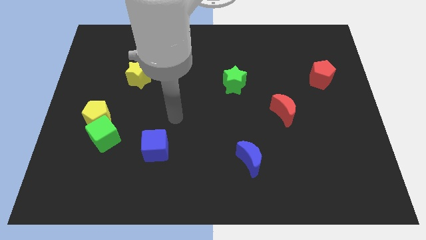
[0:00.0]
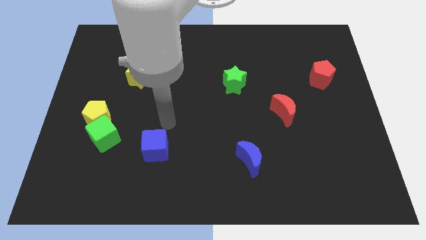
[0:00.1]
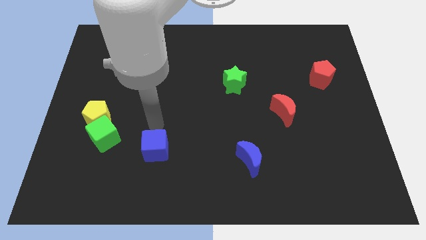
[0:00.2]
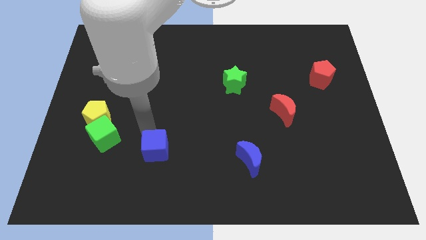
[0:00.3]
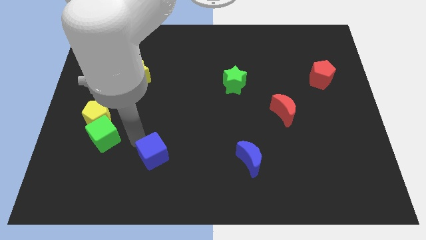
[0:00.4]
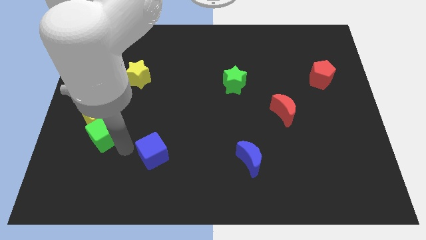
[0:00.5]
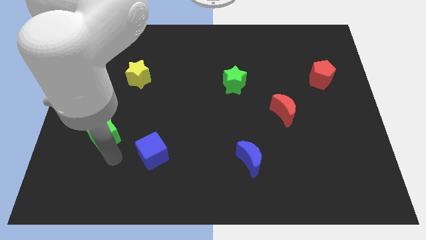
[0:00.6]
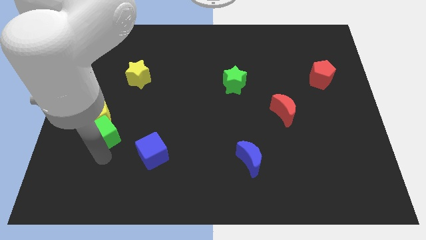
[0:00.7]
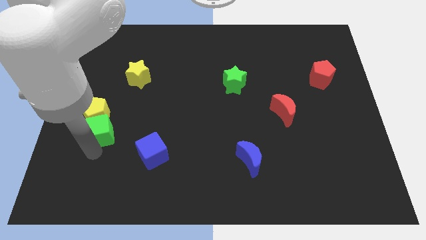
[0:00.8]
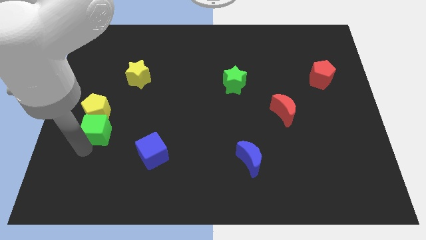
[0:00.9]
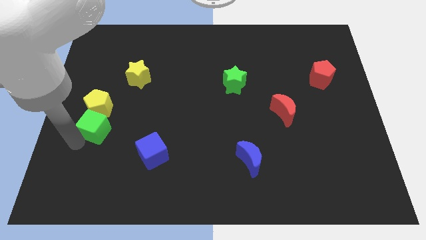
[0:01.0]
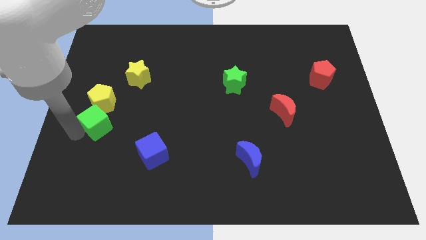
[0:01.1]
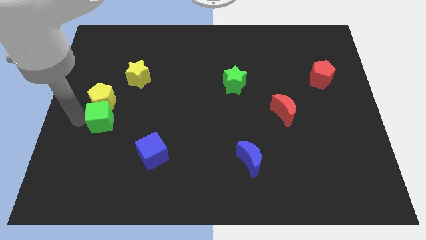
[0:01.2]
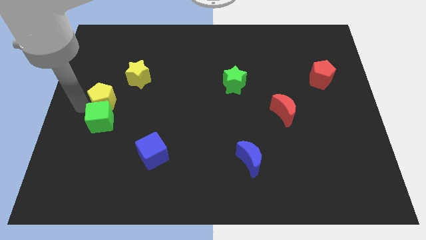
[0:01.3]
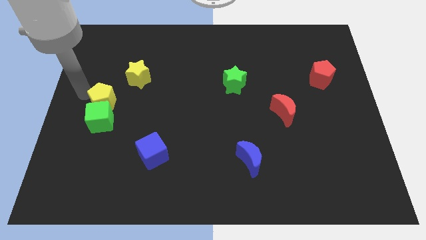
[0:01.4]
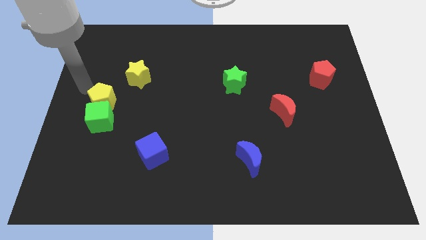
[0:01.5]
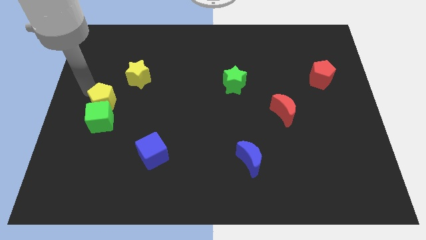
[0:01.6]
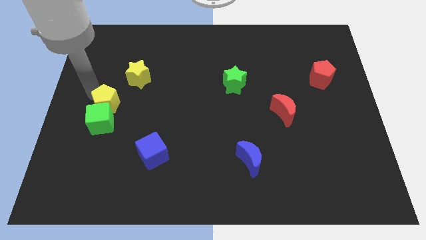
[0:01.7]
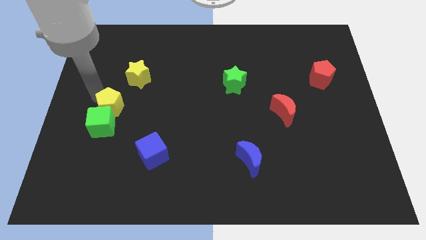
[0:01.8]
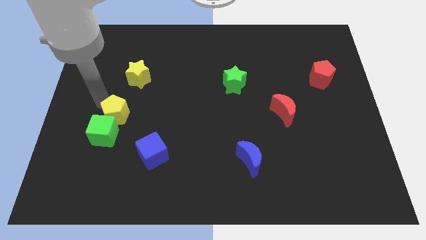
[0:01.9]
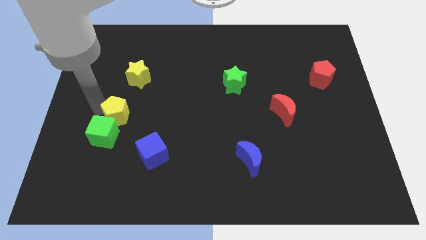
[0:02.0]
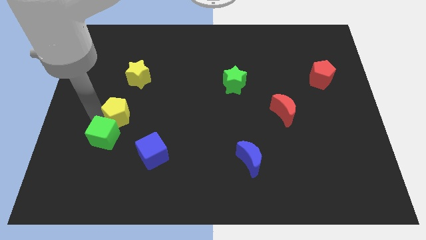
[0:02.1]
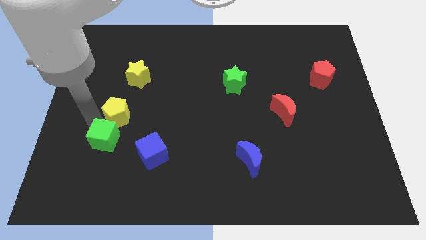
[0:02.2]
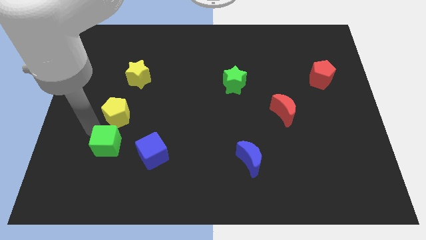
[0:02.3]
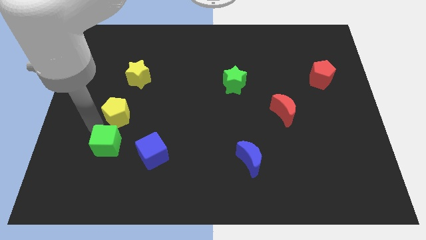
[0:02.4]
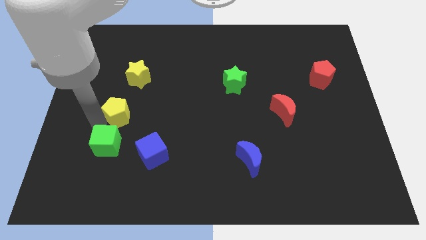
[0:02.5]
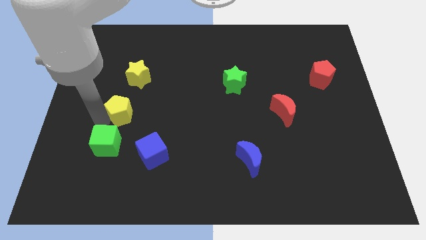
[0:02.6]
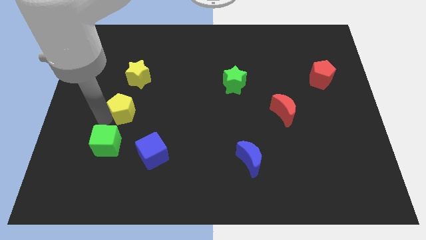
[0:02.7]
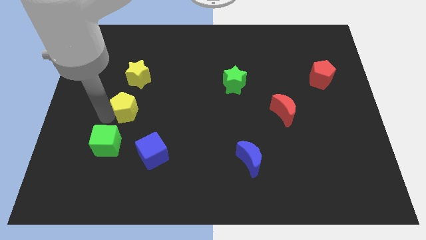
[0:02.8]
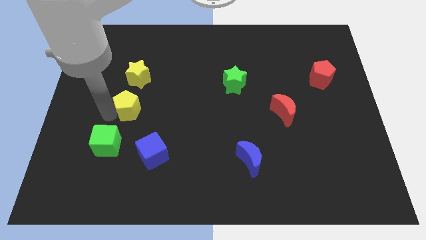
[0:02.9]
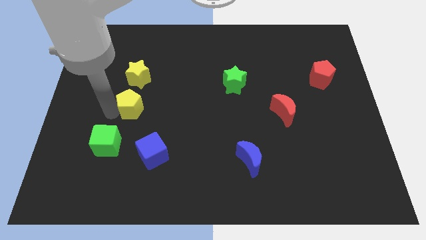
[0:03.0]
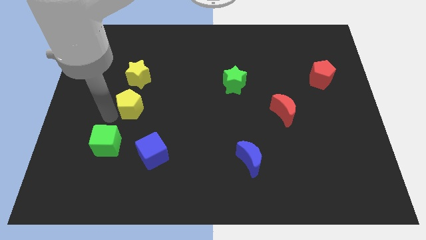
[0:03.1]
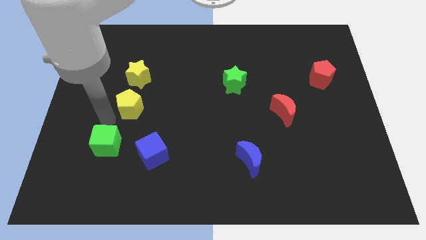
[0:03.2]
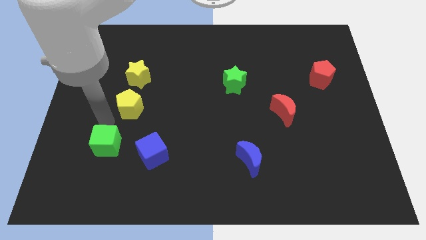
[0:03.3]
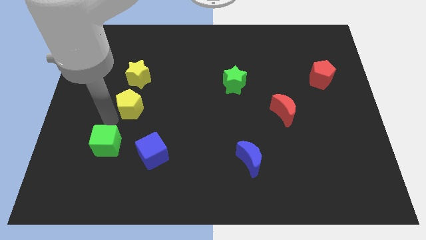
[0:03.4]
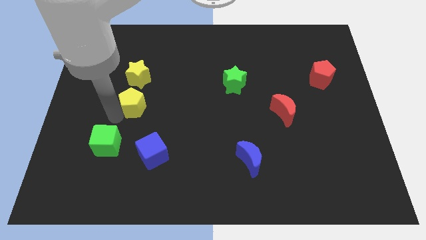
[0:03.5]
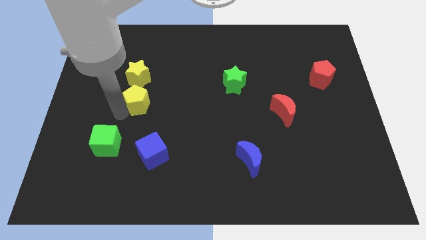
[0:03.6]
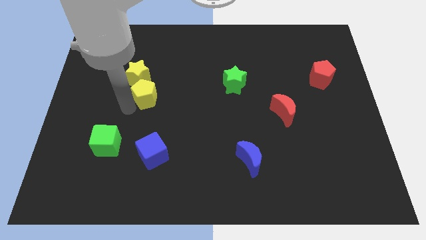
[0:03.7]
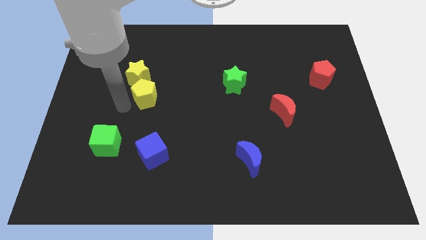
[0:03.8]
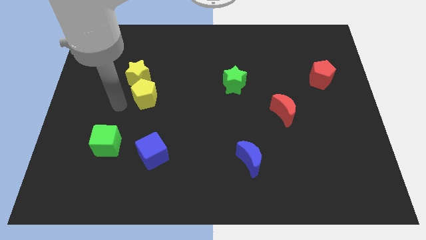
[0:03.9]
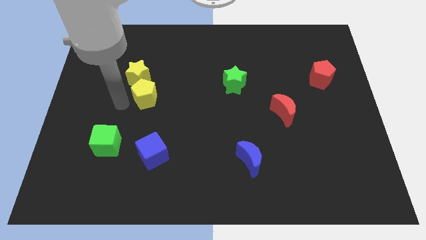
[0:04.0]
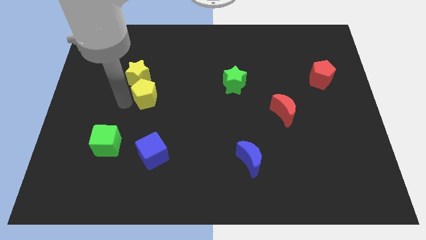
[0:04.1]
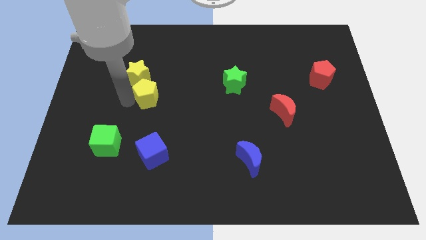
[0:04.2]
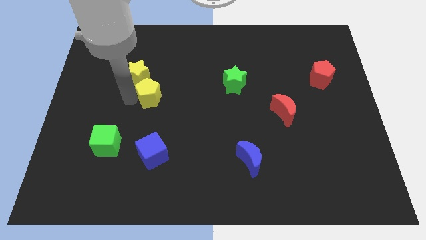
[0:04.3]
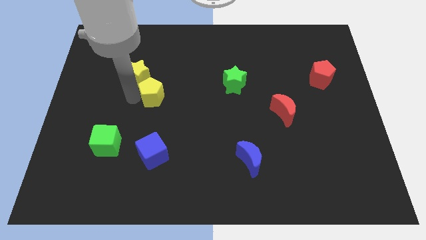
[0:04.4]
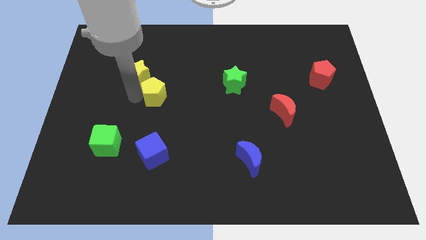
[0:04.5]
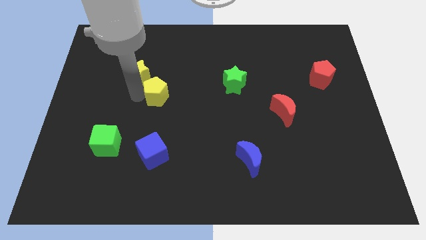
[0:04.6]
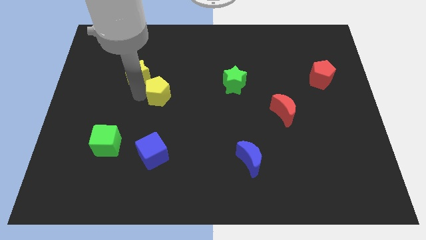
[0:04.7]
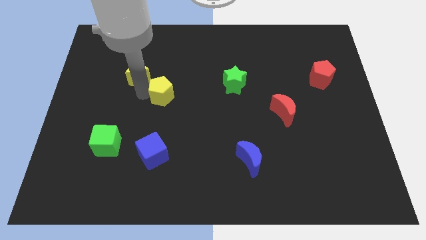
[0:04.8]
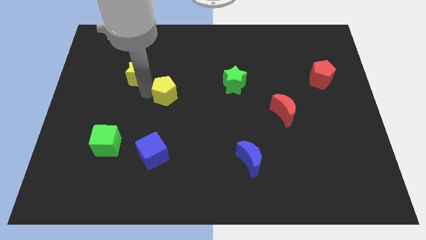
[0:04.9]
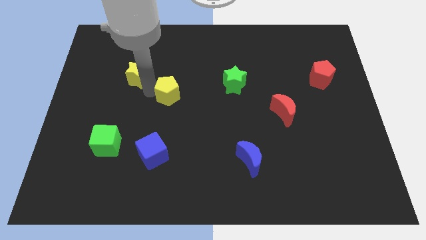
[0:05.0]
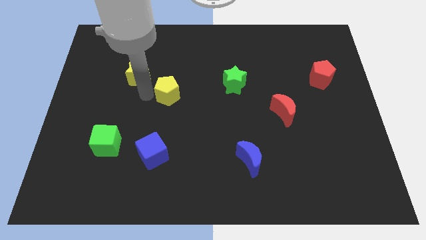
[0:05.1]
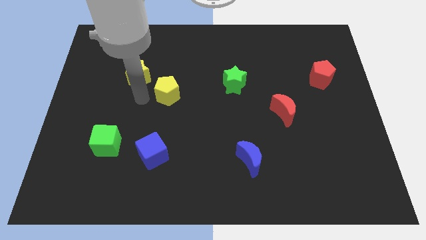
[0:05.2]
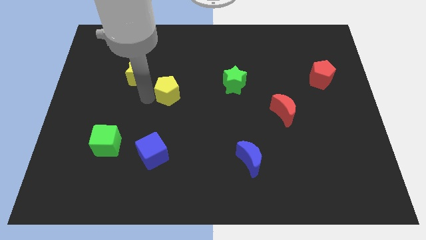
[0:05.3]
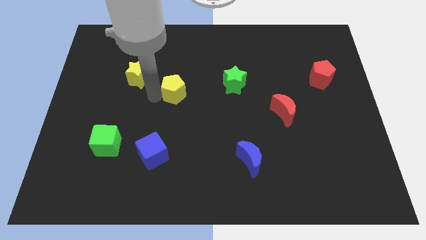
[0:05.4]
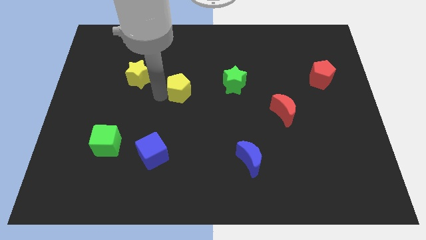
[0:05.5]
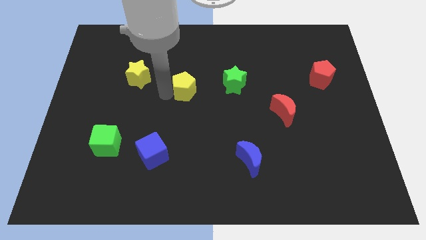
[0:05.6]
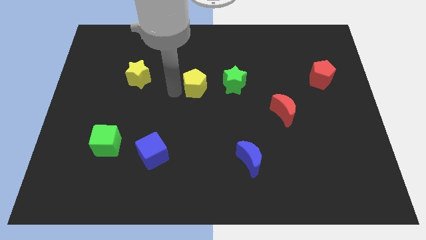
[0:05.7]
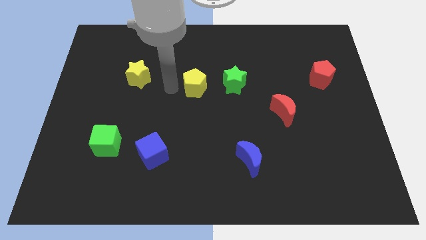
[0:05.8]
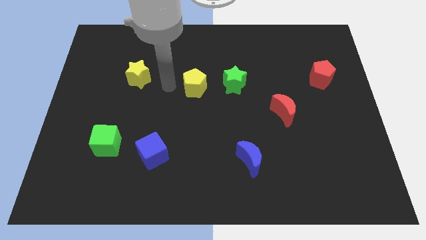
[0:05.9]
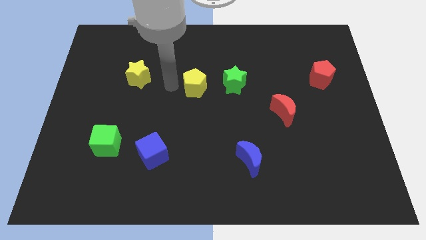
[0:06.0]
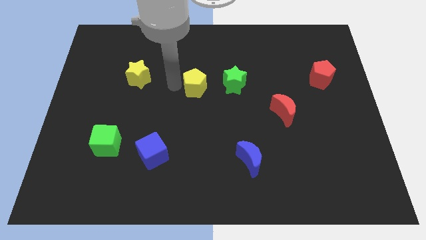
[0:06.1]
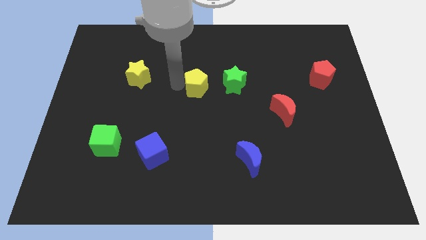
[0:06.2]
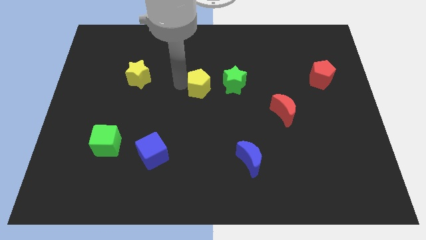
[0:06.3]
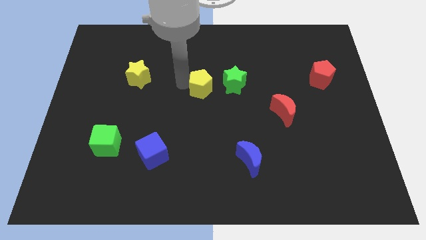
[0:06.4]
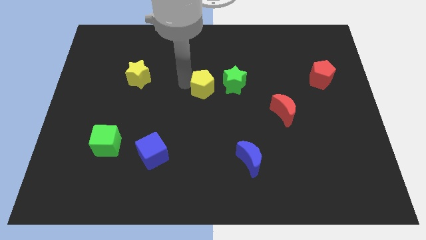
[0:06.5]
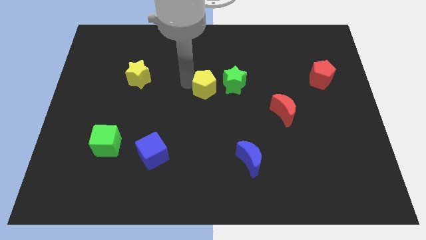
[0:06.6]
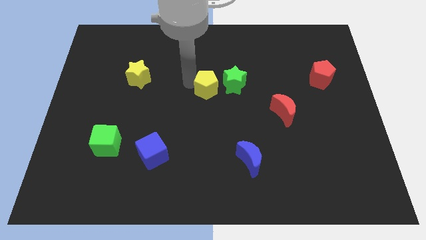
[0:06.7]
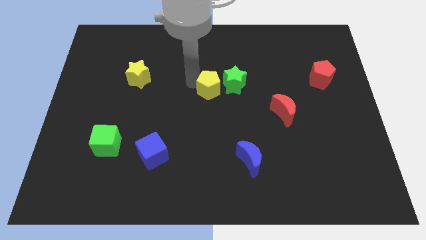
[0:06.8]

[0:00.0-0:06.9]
put the yellow pentagon close to the green star

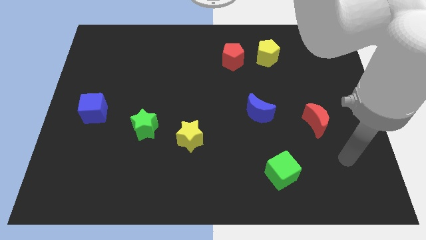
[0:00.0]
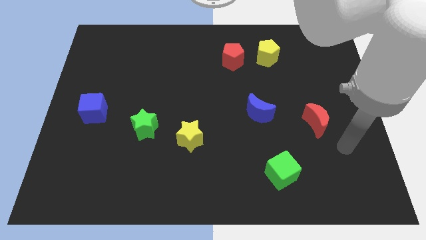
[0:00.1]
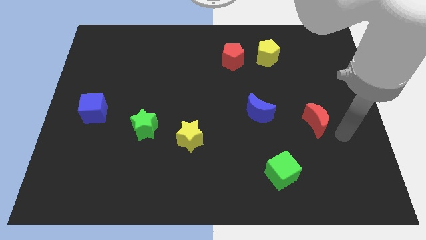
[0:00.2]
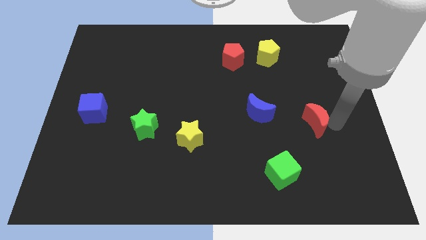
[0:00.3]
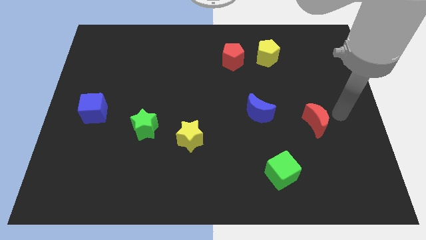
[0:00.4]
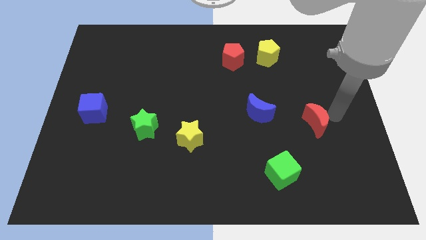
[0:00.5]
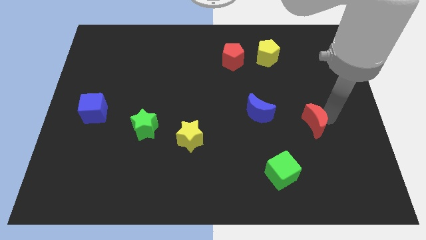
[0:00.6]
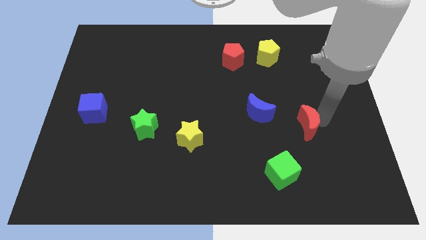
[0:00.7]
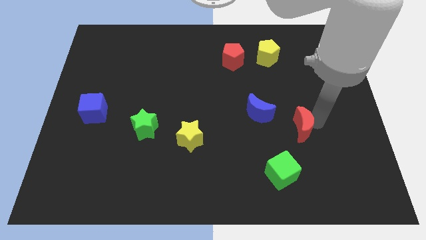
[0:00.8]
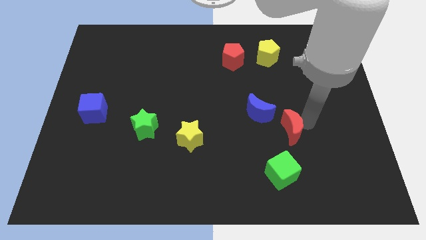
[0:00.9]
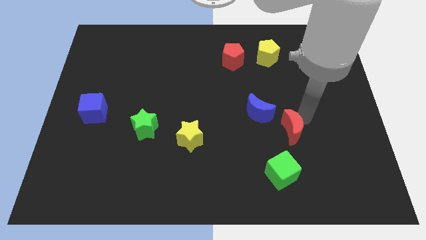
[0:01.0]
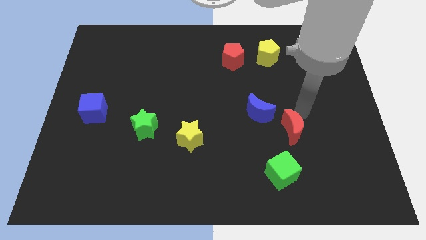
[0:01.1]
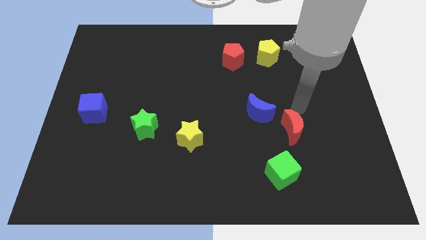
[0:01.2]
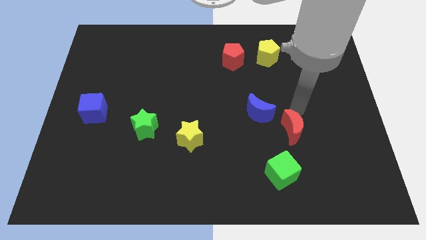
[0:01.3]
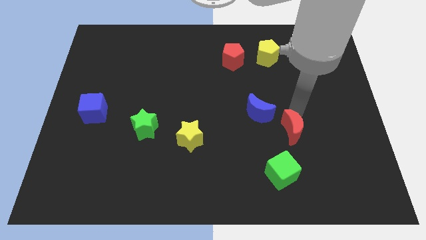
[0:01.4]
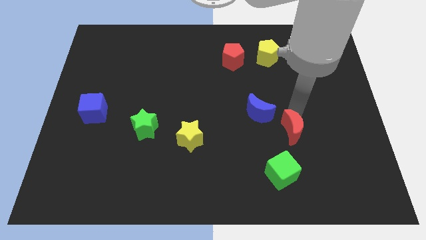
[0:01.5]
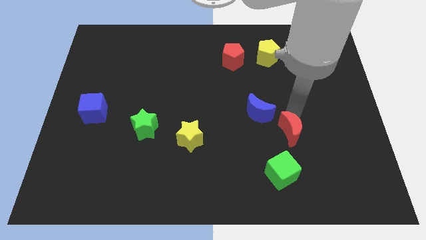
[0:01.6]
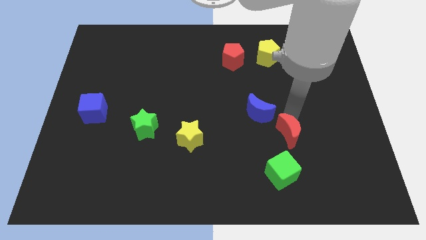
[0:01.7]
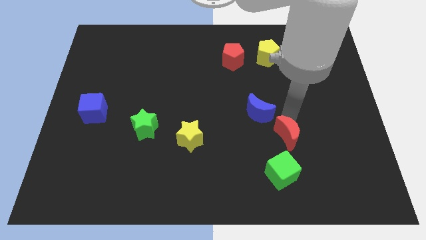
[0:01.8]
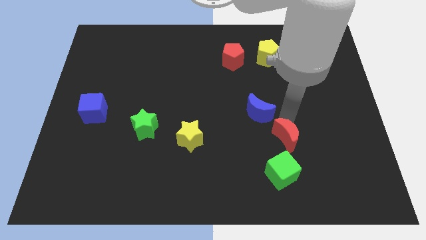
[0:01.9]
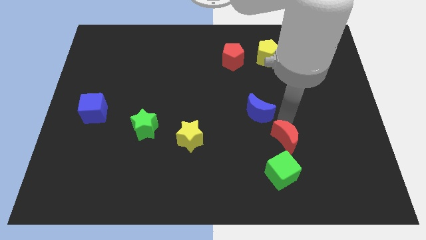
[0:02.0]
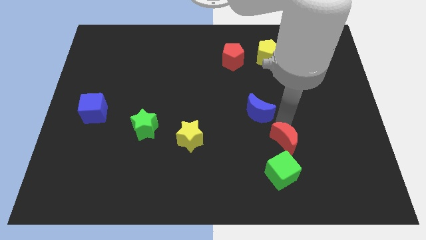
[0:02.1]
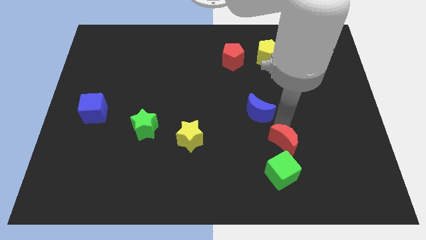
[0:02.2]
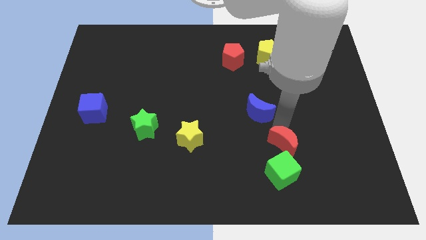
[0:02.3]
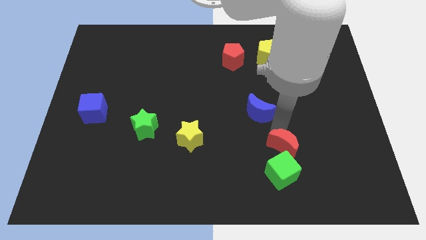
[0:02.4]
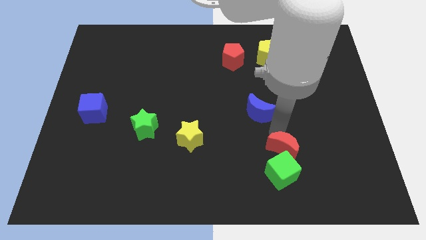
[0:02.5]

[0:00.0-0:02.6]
push the red moon to the green cube
